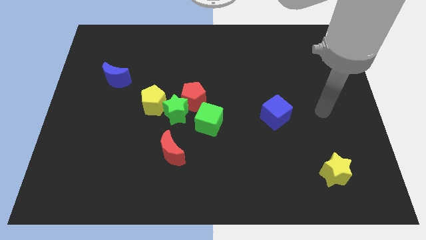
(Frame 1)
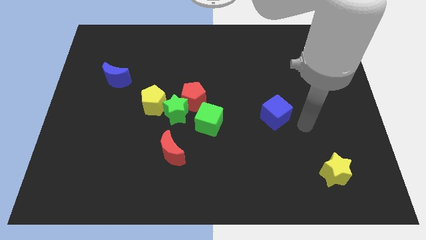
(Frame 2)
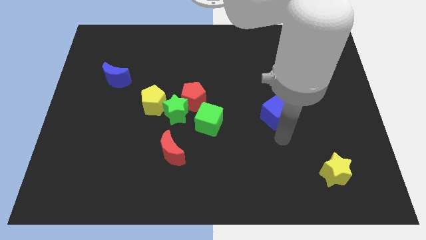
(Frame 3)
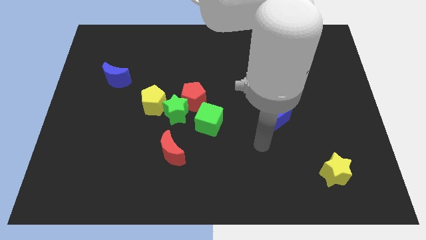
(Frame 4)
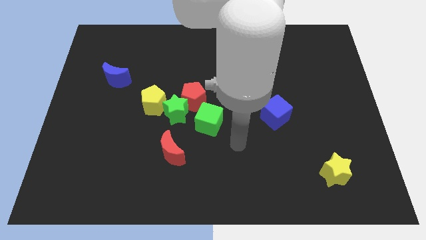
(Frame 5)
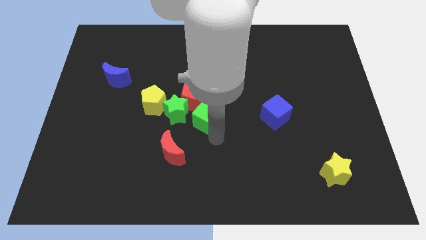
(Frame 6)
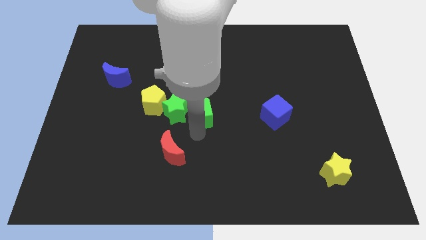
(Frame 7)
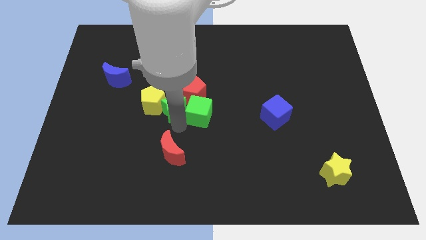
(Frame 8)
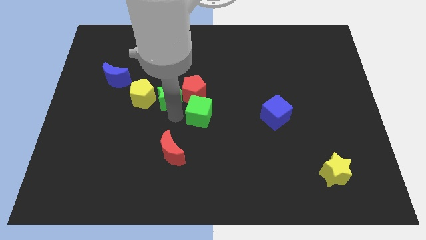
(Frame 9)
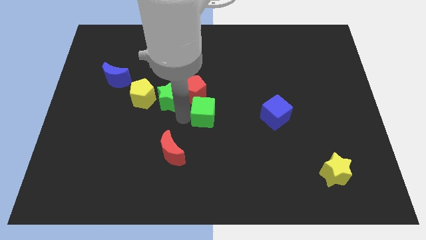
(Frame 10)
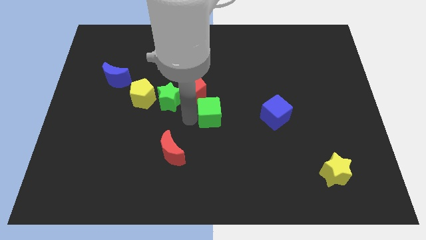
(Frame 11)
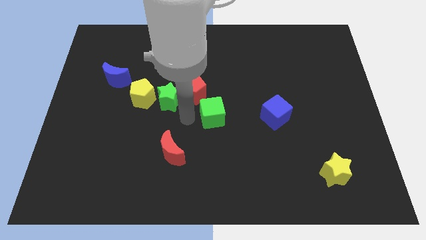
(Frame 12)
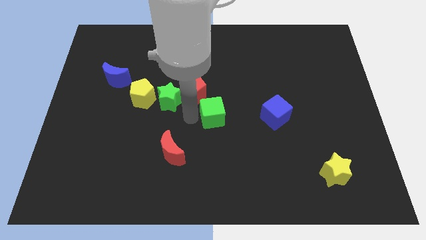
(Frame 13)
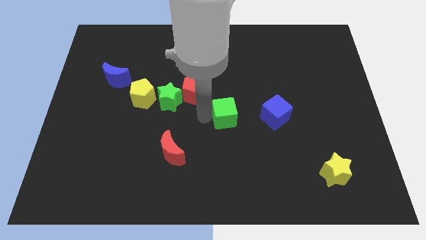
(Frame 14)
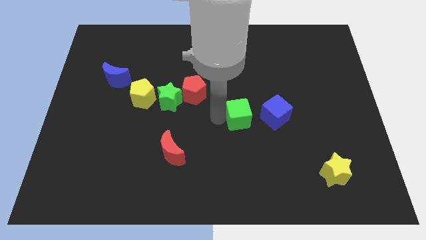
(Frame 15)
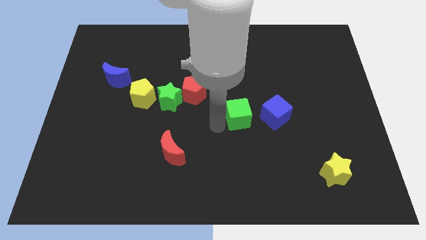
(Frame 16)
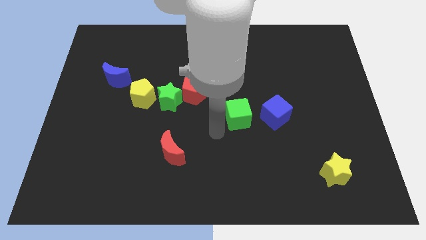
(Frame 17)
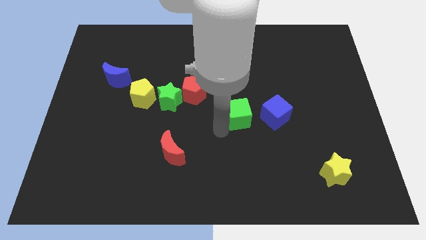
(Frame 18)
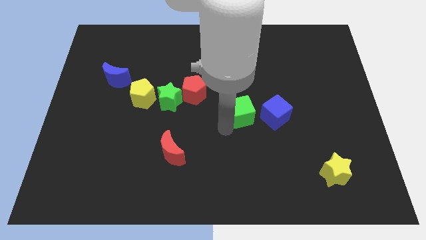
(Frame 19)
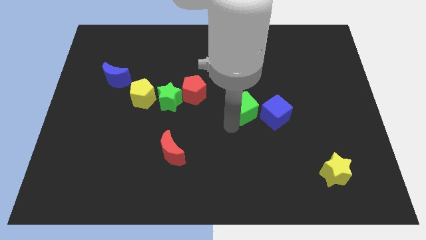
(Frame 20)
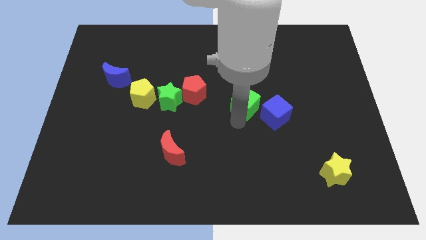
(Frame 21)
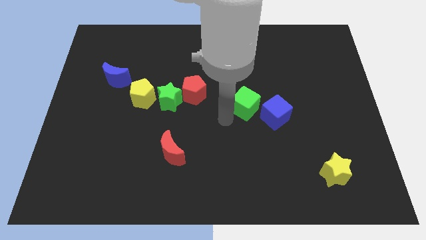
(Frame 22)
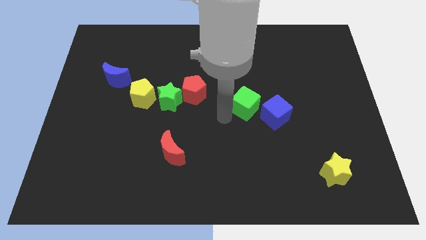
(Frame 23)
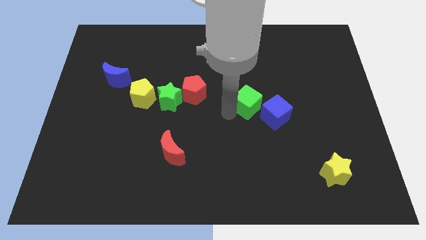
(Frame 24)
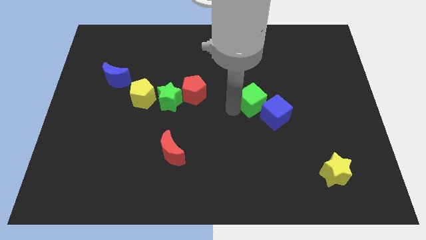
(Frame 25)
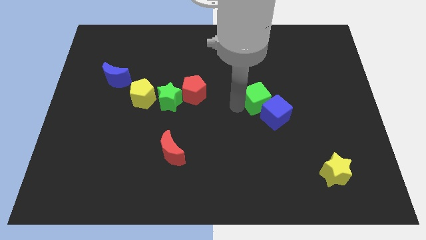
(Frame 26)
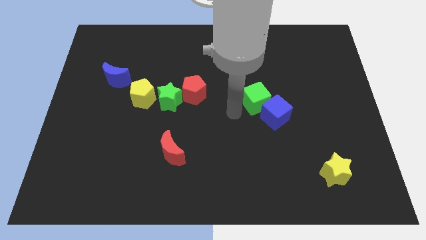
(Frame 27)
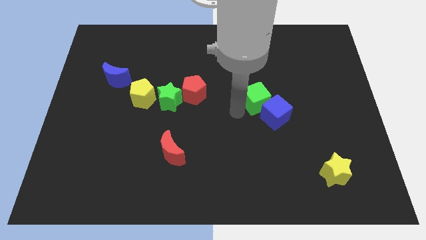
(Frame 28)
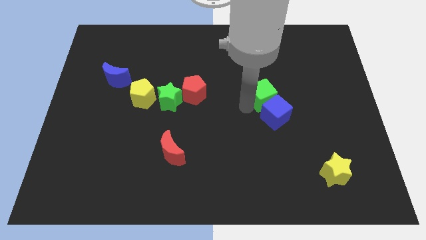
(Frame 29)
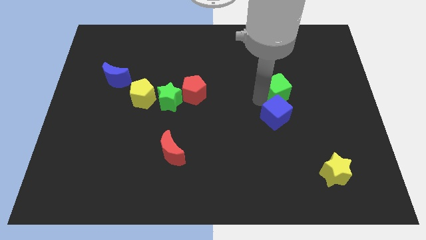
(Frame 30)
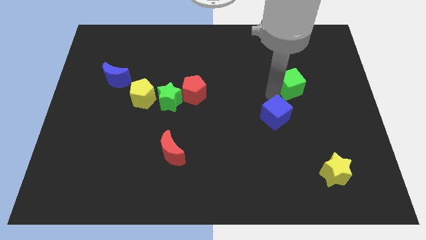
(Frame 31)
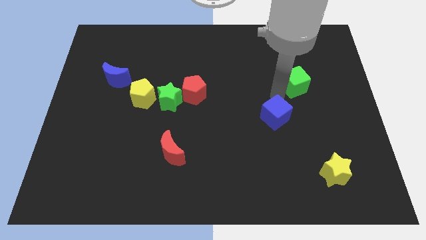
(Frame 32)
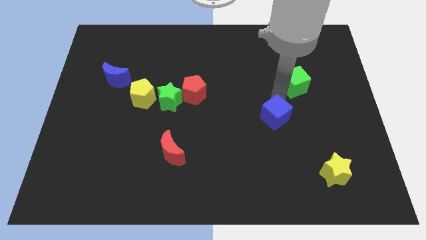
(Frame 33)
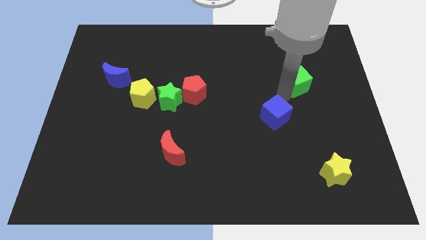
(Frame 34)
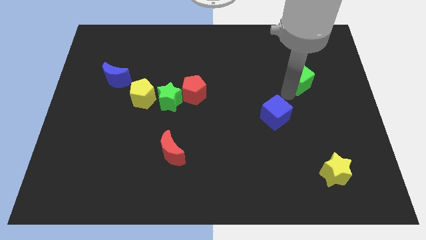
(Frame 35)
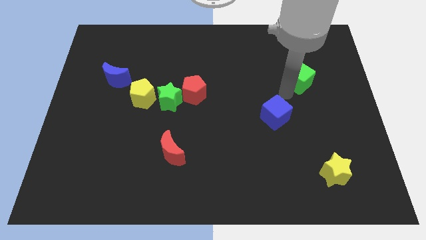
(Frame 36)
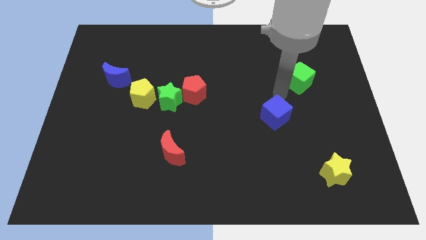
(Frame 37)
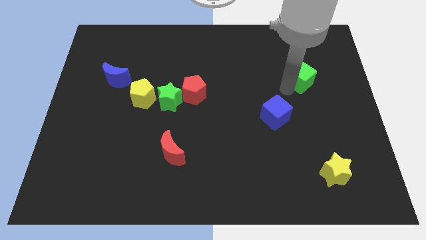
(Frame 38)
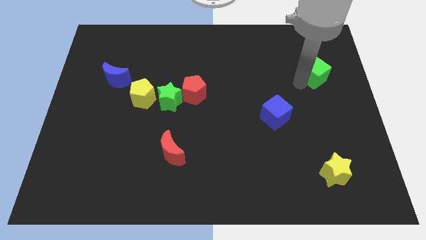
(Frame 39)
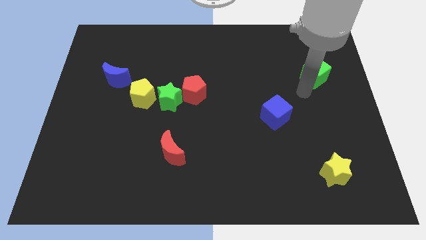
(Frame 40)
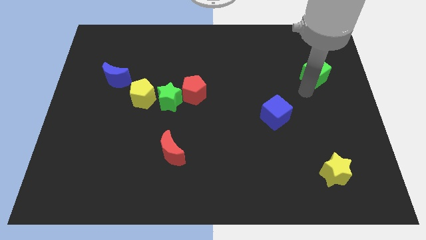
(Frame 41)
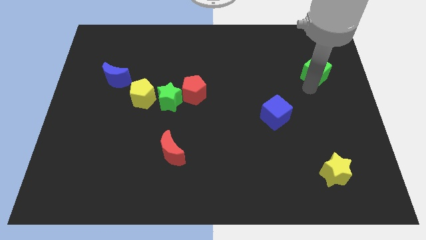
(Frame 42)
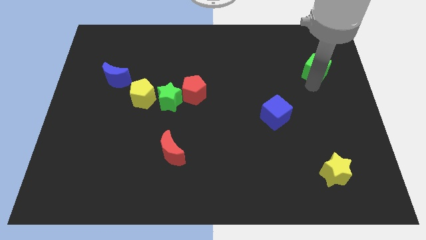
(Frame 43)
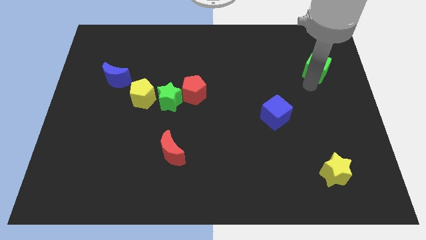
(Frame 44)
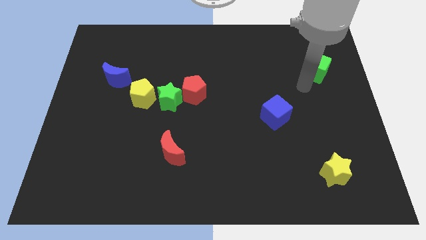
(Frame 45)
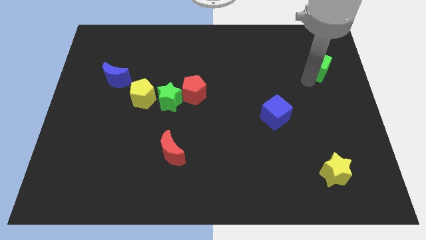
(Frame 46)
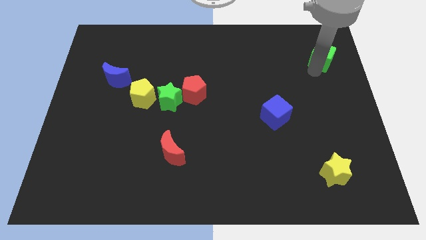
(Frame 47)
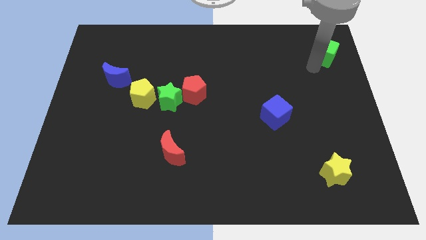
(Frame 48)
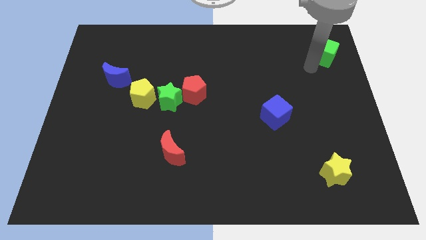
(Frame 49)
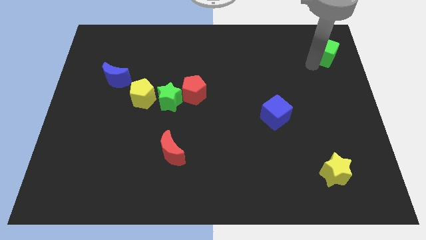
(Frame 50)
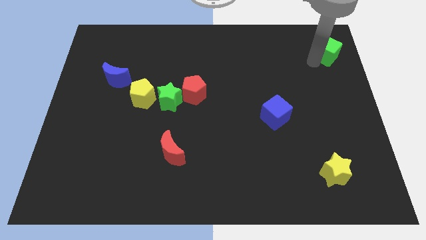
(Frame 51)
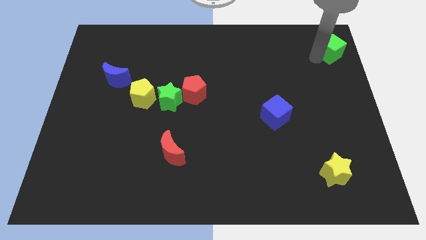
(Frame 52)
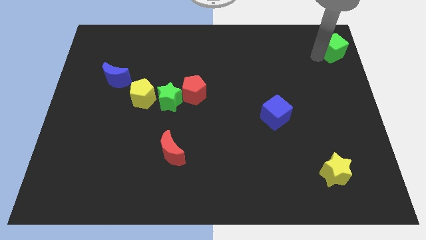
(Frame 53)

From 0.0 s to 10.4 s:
put the green cube to the top right corner

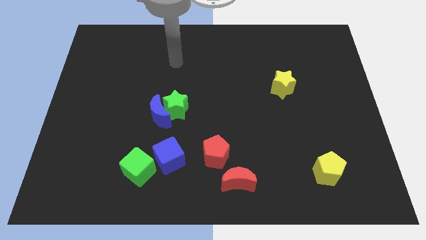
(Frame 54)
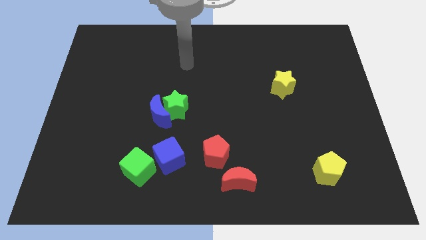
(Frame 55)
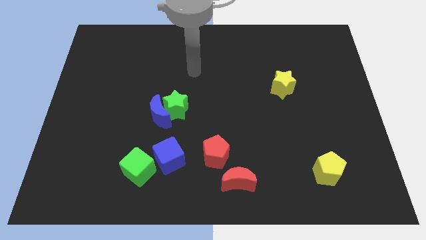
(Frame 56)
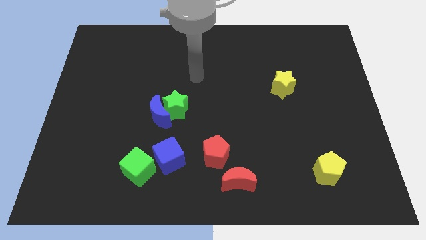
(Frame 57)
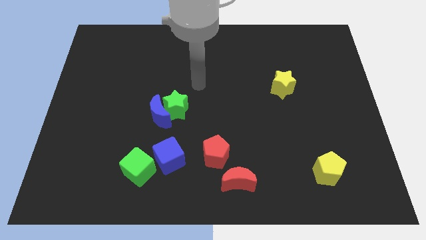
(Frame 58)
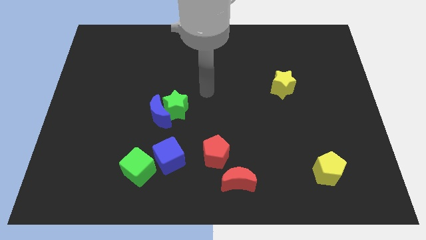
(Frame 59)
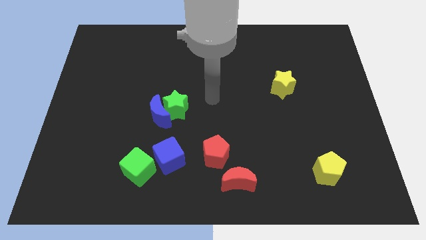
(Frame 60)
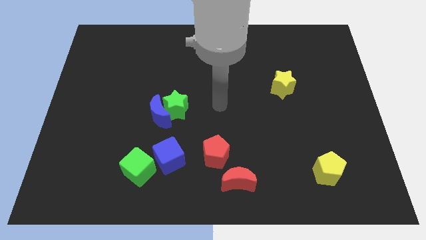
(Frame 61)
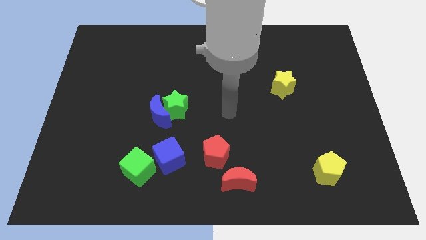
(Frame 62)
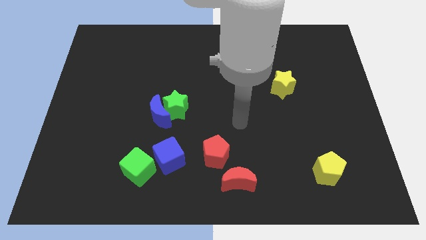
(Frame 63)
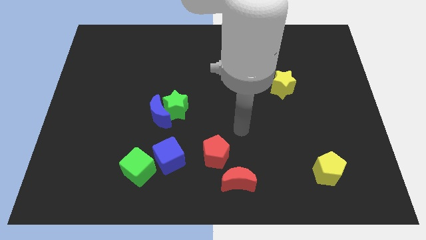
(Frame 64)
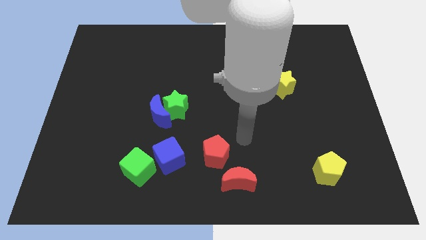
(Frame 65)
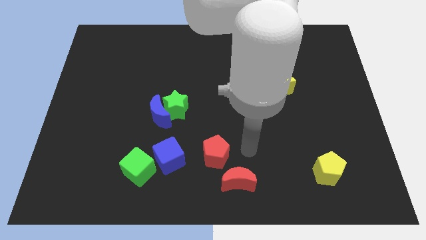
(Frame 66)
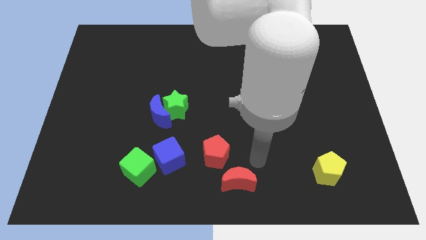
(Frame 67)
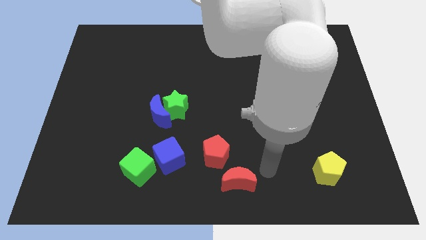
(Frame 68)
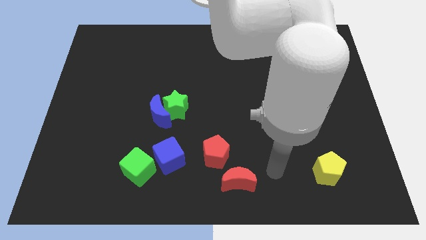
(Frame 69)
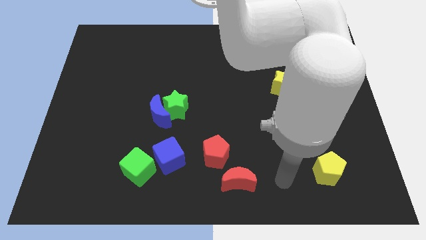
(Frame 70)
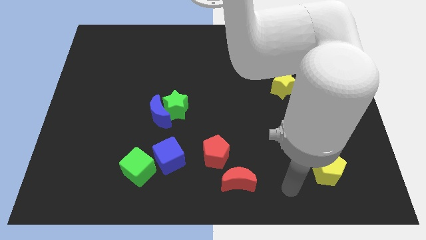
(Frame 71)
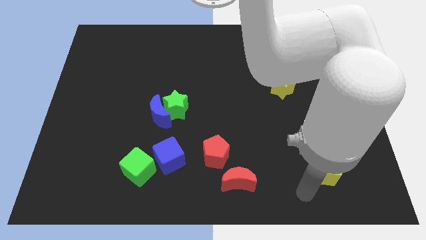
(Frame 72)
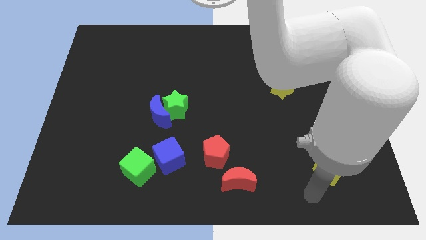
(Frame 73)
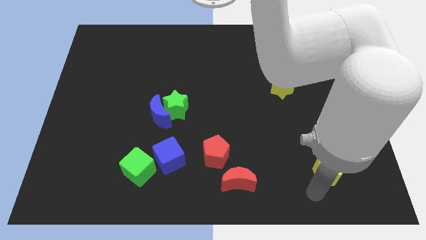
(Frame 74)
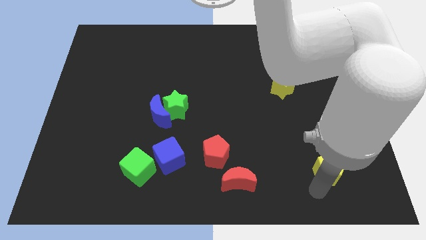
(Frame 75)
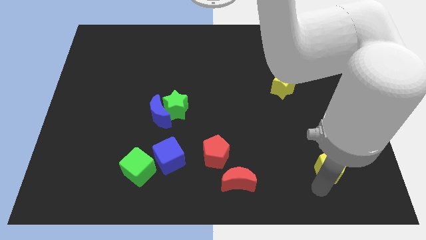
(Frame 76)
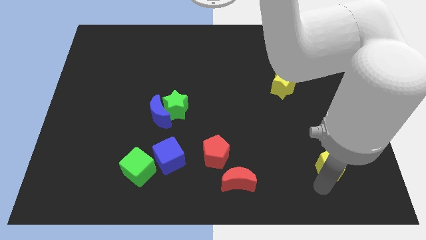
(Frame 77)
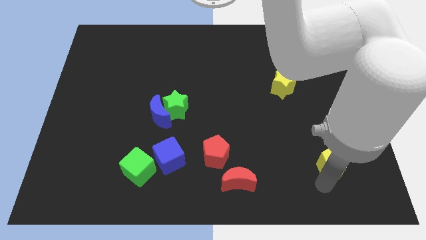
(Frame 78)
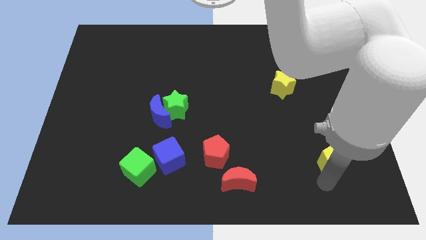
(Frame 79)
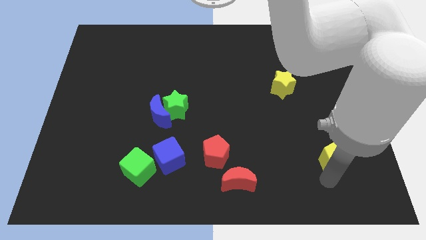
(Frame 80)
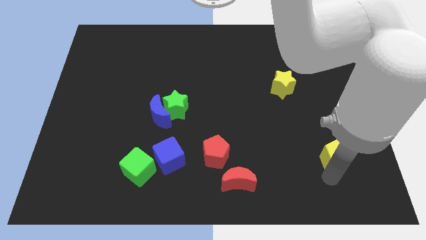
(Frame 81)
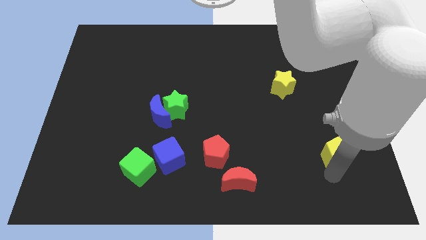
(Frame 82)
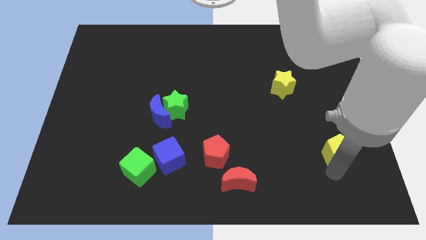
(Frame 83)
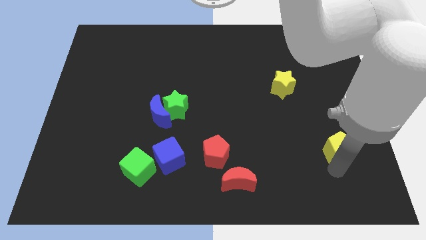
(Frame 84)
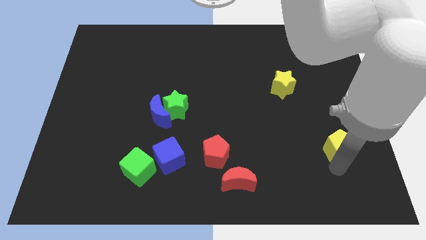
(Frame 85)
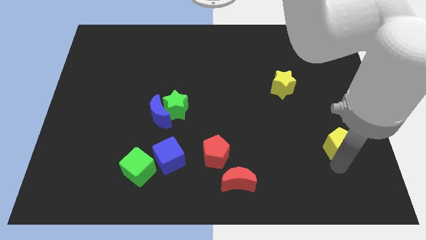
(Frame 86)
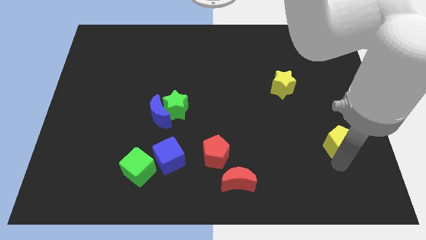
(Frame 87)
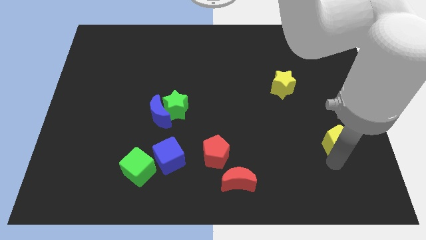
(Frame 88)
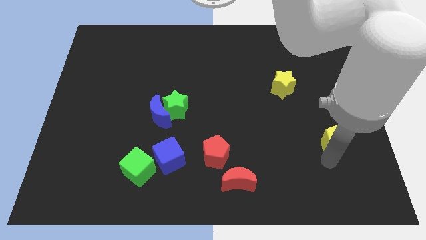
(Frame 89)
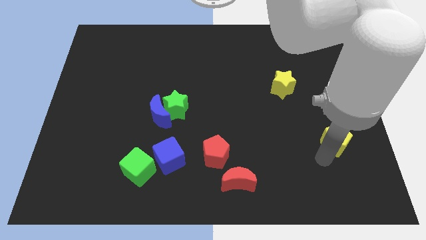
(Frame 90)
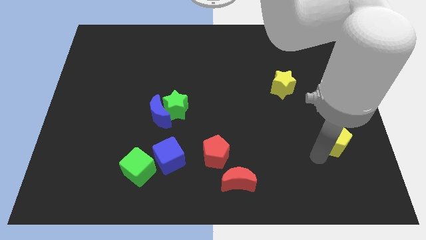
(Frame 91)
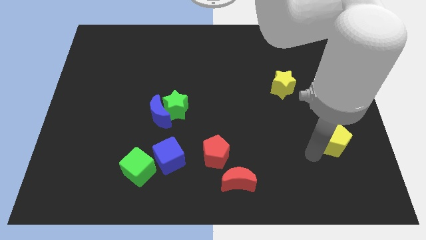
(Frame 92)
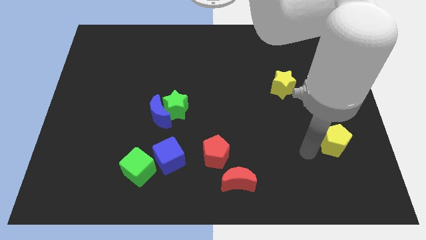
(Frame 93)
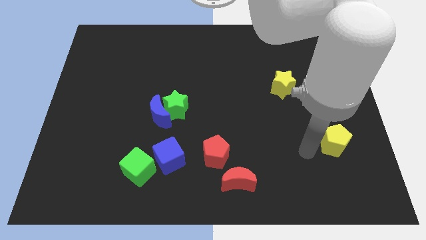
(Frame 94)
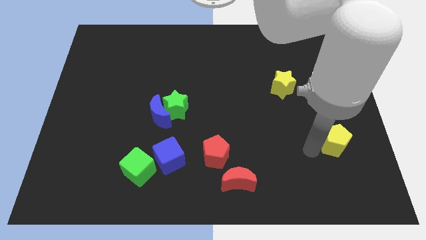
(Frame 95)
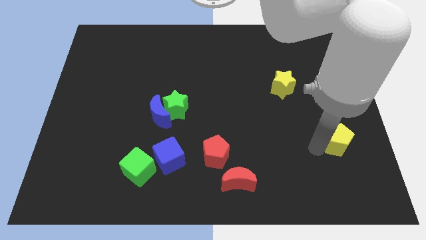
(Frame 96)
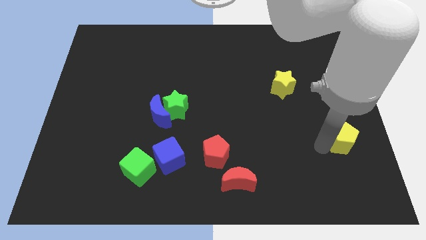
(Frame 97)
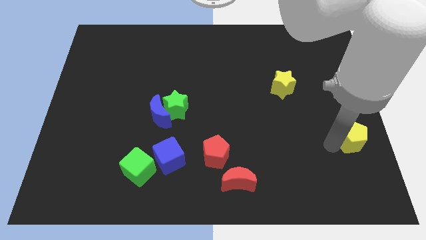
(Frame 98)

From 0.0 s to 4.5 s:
move the yellow pentagon to the right side of the board
